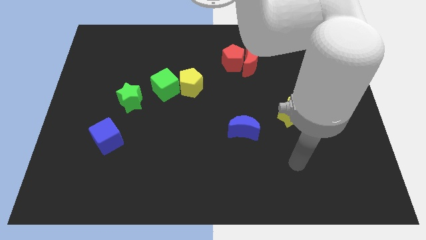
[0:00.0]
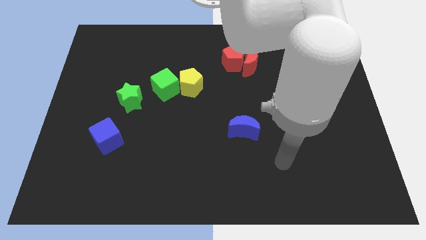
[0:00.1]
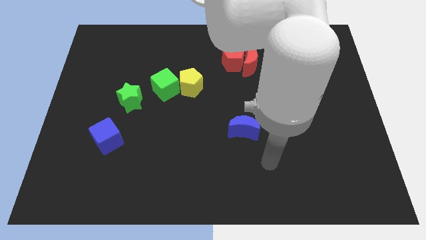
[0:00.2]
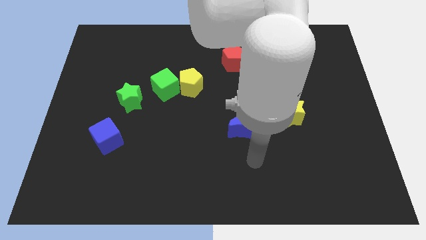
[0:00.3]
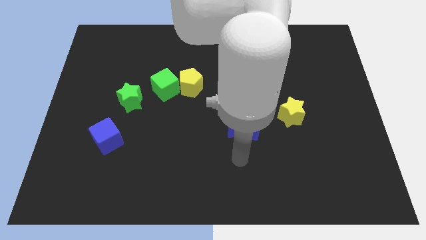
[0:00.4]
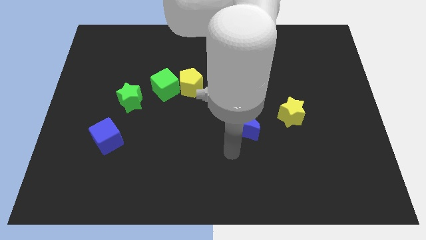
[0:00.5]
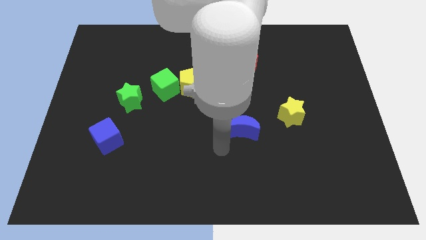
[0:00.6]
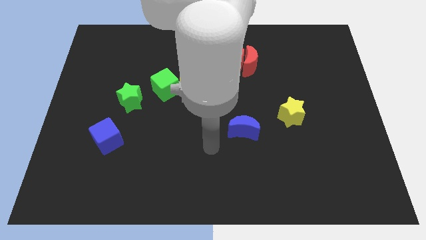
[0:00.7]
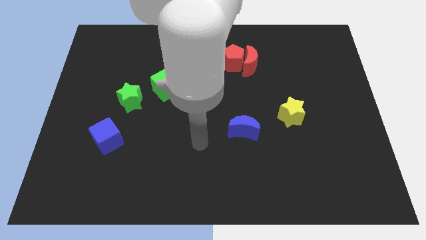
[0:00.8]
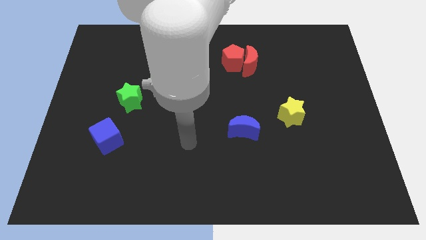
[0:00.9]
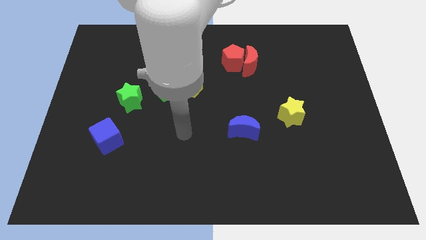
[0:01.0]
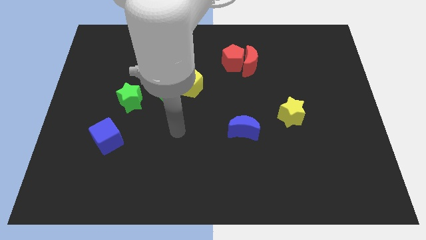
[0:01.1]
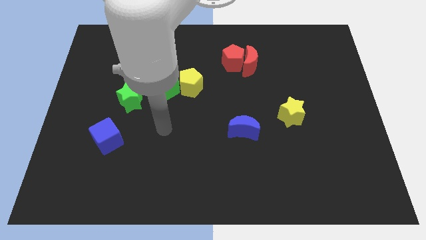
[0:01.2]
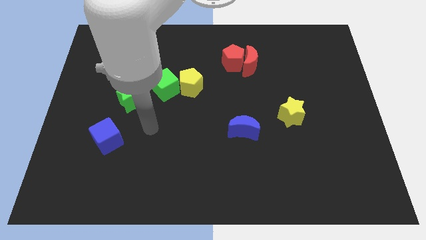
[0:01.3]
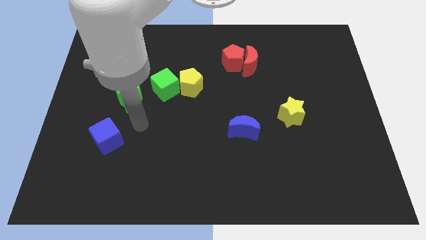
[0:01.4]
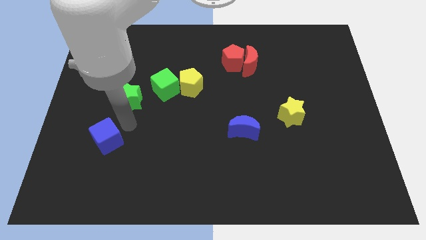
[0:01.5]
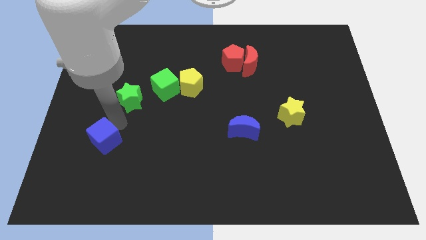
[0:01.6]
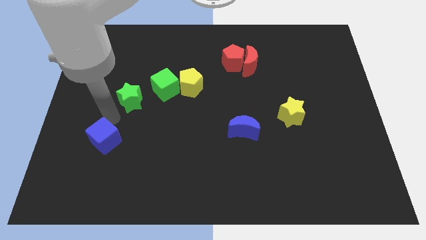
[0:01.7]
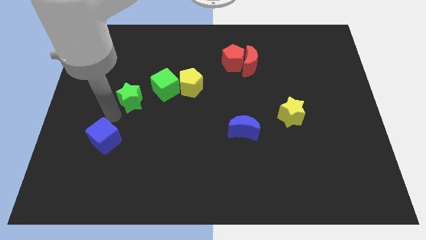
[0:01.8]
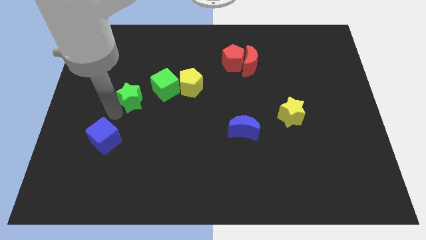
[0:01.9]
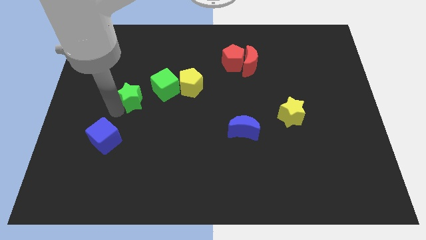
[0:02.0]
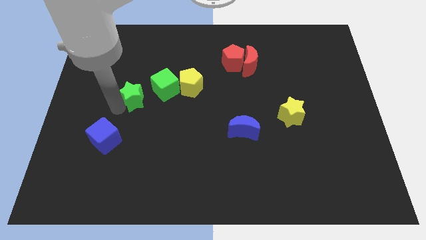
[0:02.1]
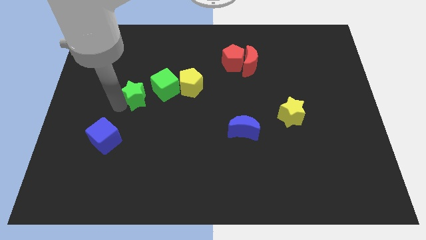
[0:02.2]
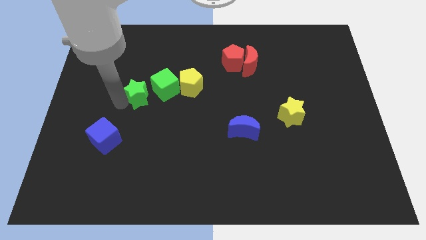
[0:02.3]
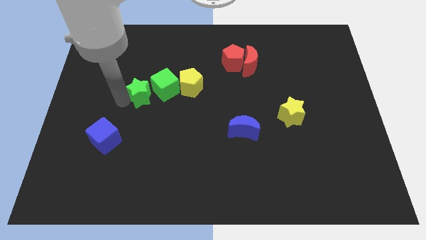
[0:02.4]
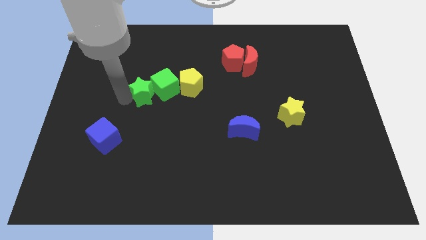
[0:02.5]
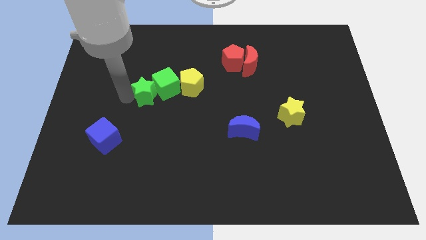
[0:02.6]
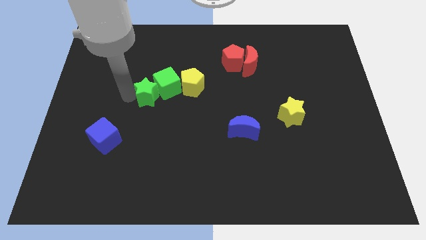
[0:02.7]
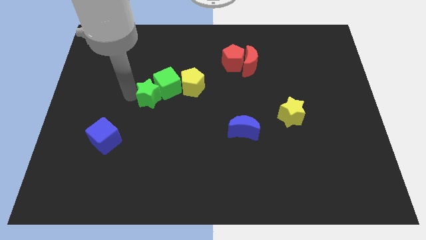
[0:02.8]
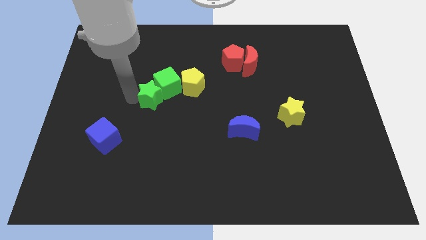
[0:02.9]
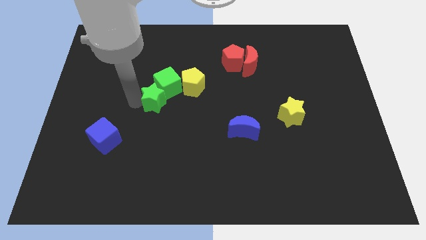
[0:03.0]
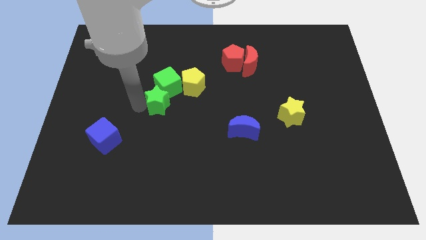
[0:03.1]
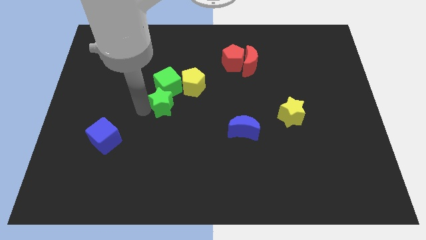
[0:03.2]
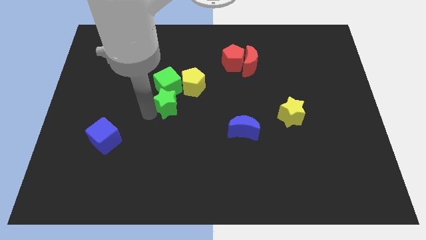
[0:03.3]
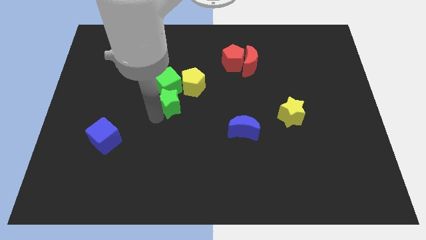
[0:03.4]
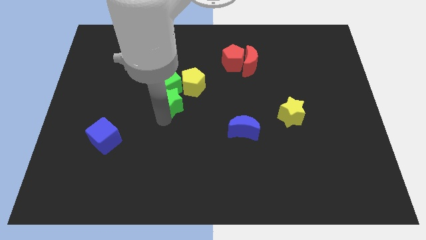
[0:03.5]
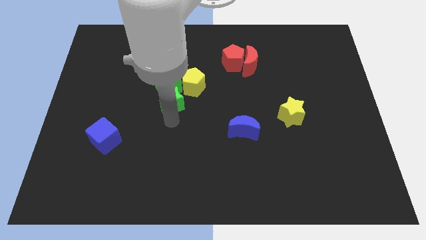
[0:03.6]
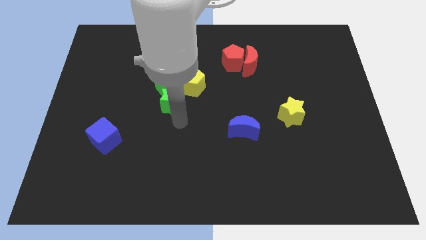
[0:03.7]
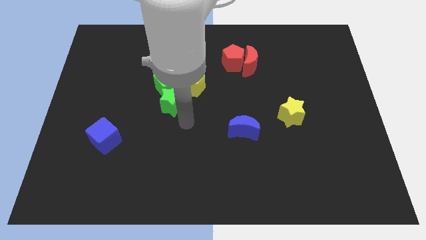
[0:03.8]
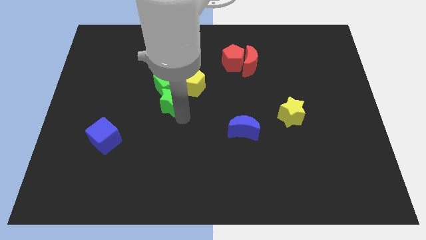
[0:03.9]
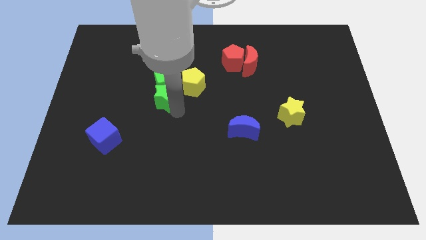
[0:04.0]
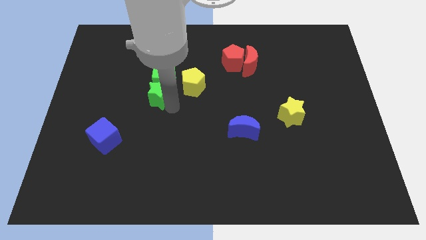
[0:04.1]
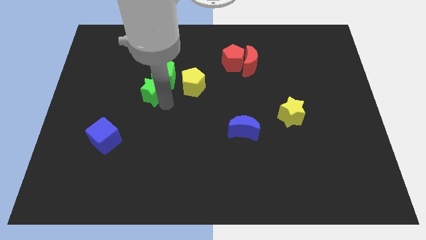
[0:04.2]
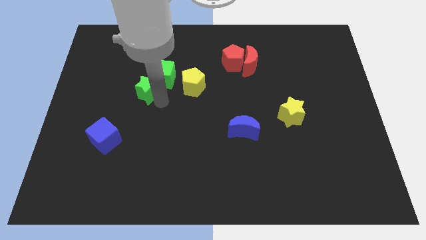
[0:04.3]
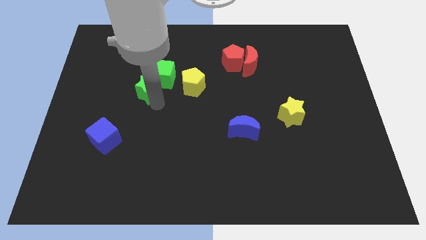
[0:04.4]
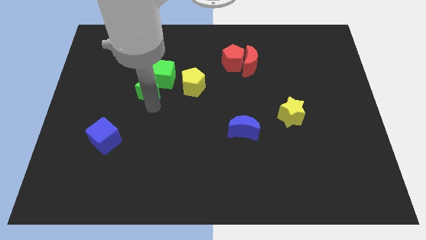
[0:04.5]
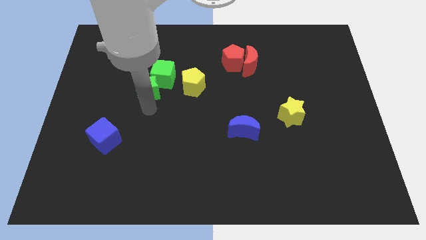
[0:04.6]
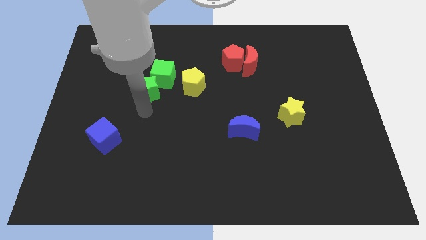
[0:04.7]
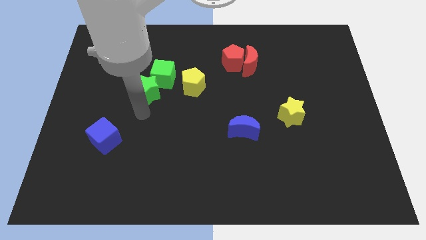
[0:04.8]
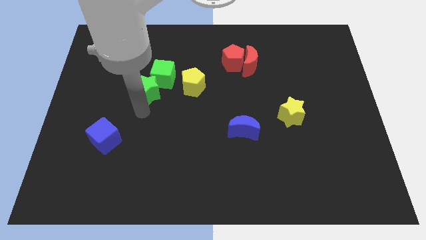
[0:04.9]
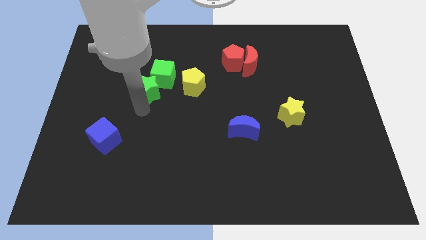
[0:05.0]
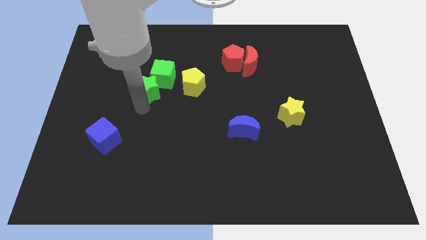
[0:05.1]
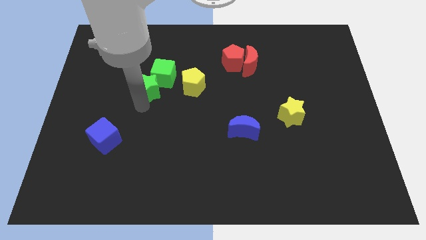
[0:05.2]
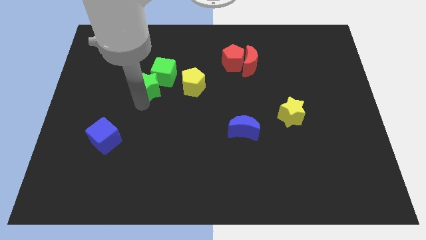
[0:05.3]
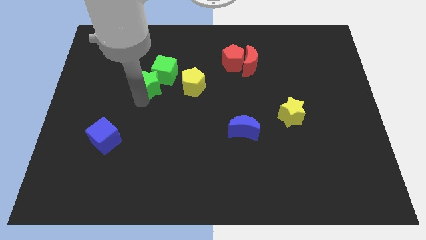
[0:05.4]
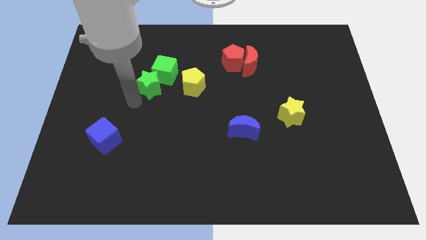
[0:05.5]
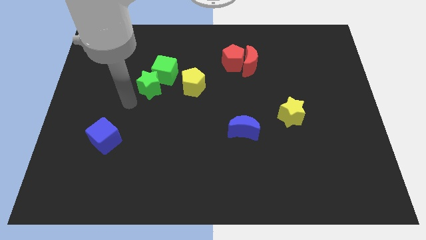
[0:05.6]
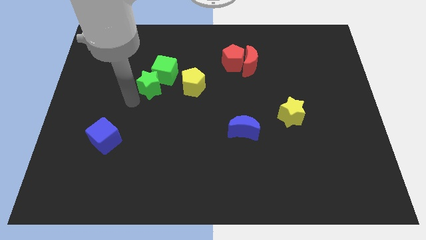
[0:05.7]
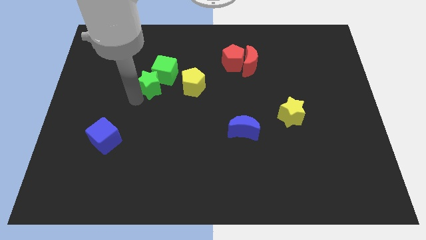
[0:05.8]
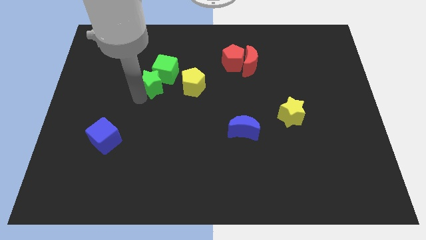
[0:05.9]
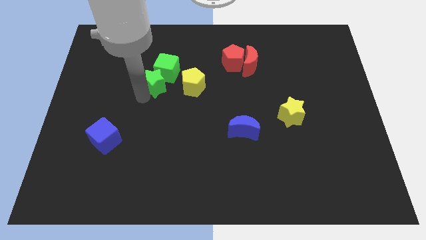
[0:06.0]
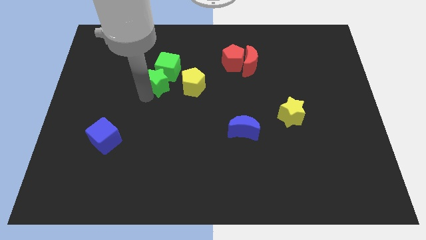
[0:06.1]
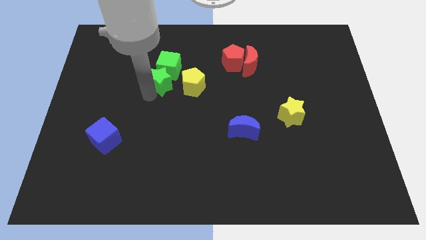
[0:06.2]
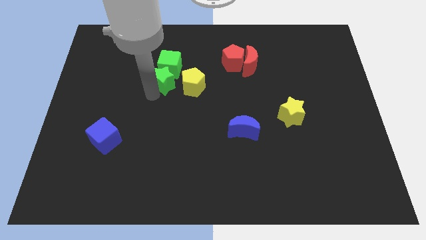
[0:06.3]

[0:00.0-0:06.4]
move the green star to the top left side of the yellow pentagon

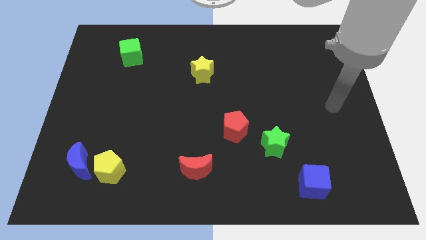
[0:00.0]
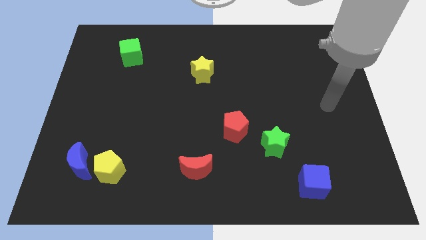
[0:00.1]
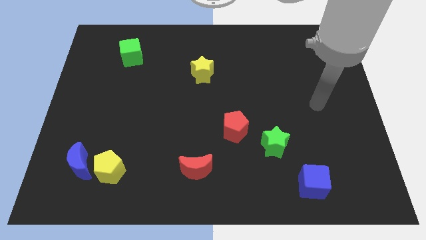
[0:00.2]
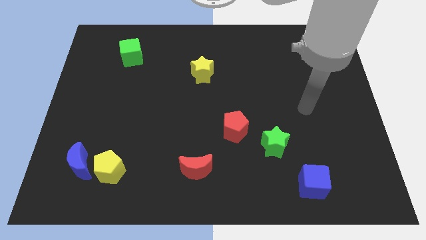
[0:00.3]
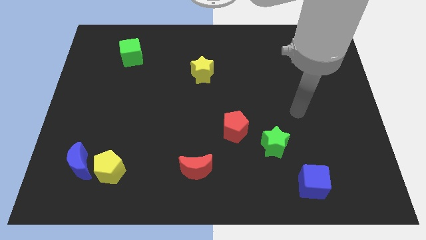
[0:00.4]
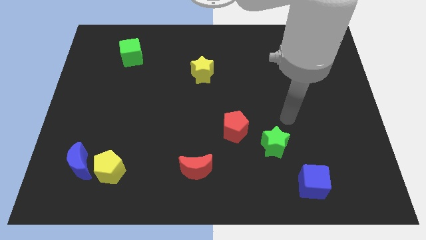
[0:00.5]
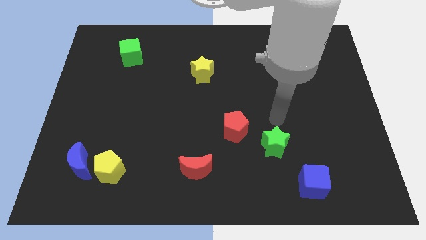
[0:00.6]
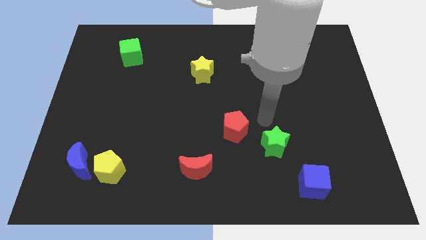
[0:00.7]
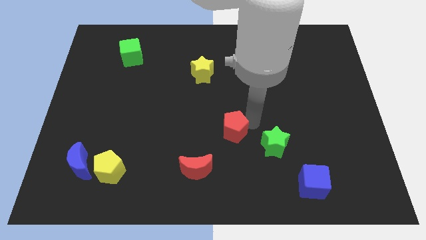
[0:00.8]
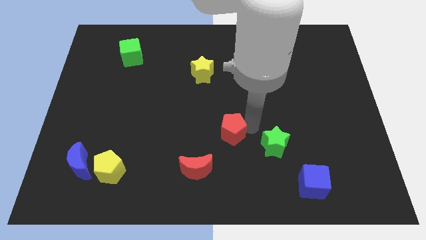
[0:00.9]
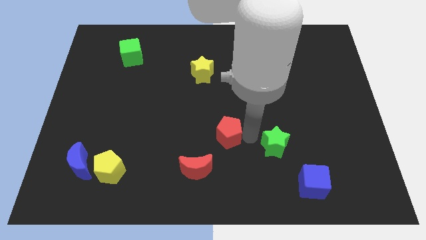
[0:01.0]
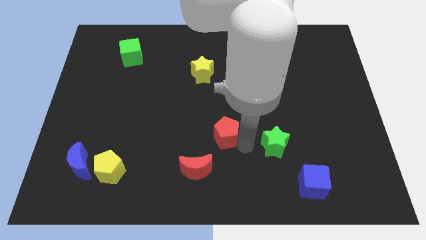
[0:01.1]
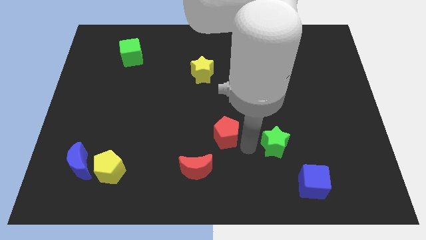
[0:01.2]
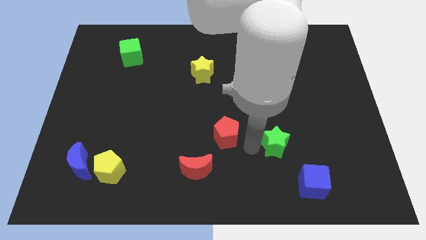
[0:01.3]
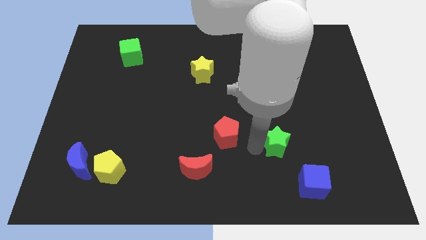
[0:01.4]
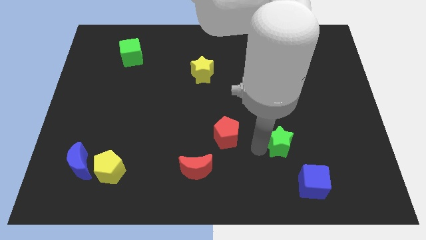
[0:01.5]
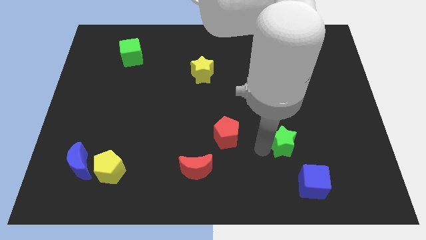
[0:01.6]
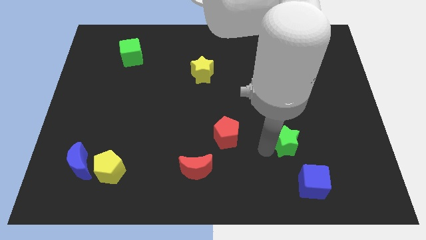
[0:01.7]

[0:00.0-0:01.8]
put the green star above the blue cube

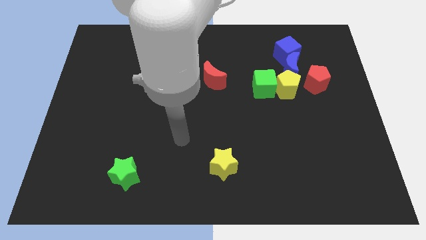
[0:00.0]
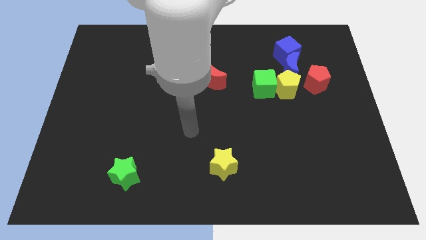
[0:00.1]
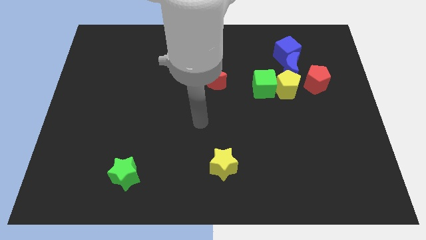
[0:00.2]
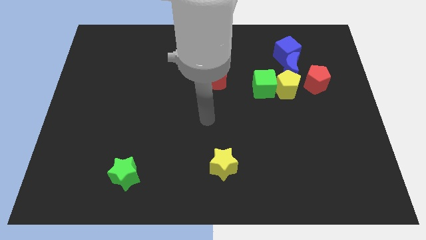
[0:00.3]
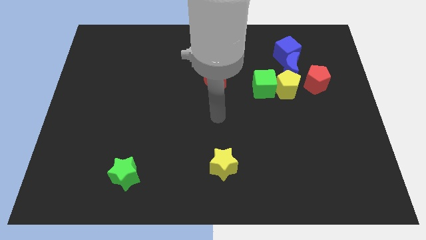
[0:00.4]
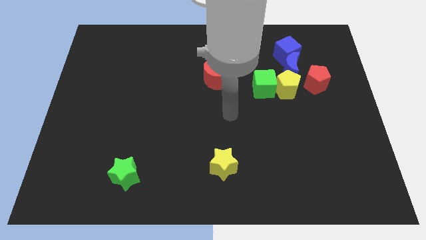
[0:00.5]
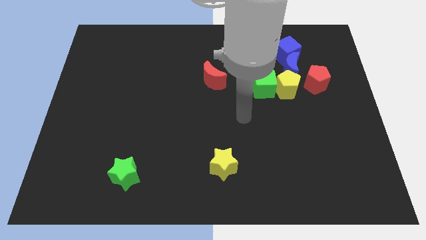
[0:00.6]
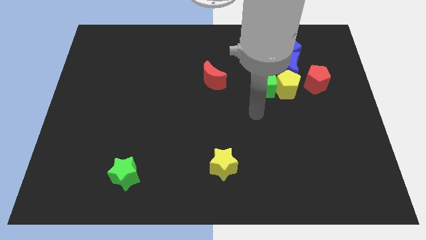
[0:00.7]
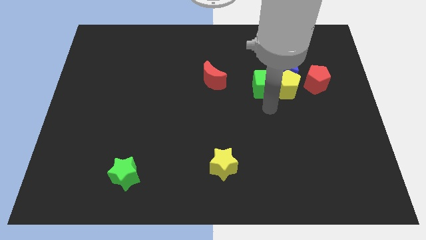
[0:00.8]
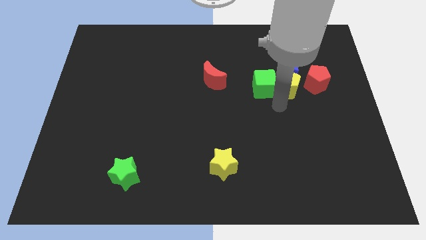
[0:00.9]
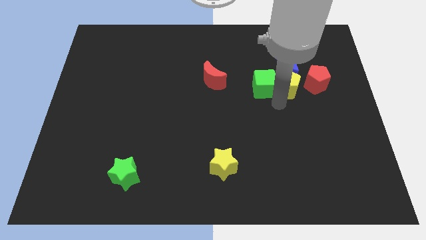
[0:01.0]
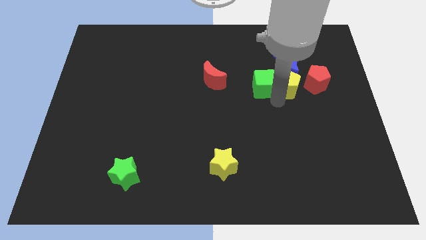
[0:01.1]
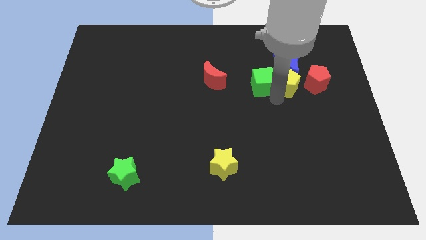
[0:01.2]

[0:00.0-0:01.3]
push the green cube to the left of the blue moon
